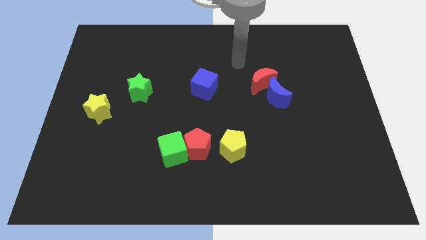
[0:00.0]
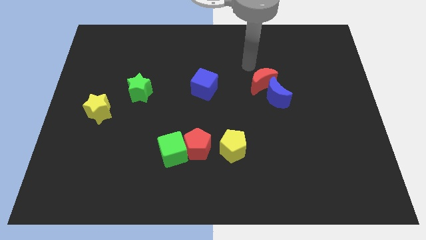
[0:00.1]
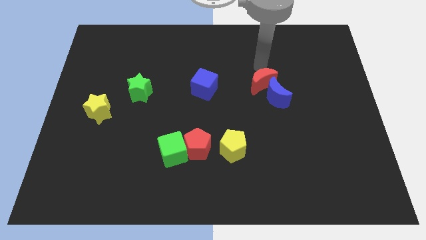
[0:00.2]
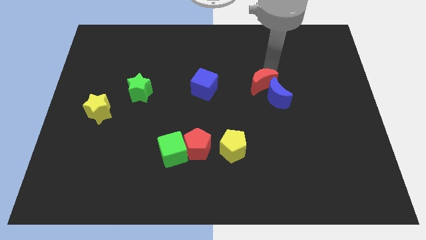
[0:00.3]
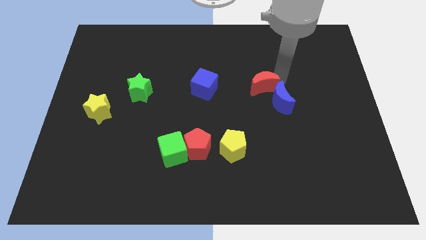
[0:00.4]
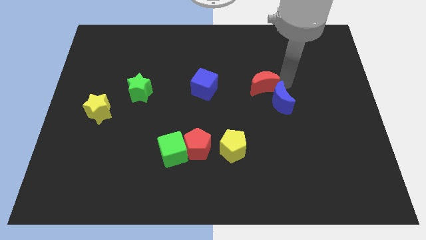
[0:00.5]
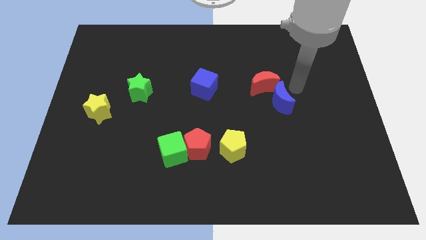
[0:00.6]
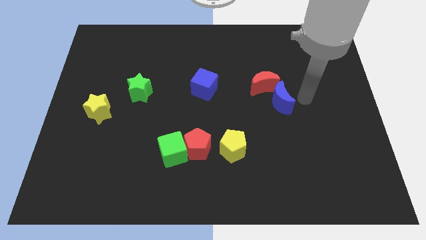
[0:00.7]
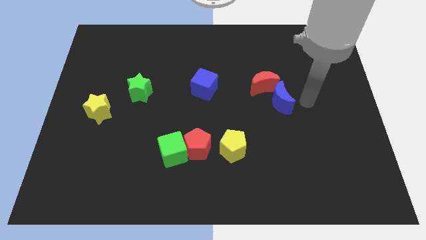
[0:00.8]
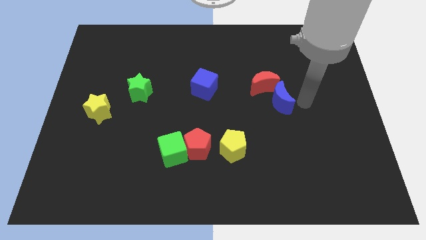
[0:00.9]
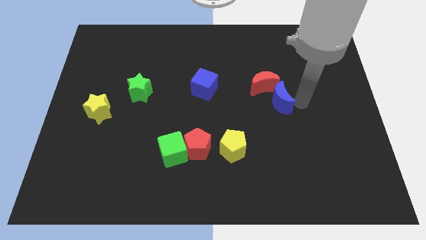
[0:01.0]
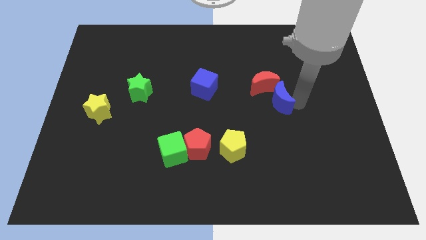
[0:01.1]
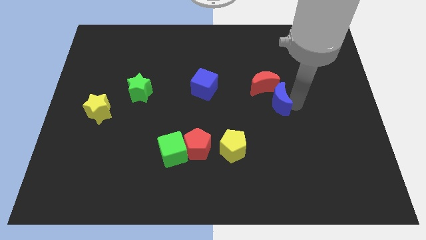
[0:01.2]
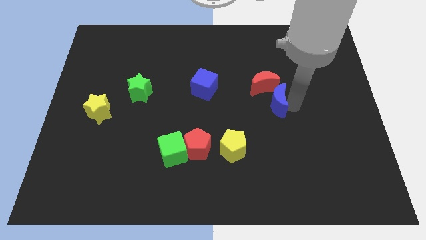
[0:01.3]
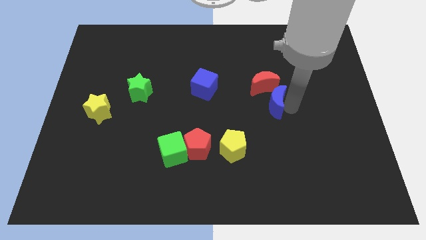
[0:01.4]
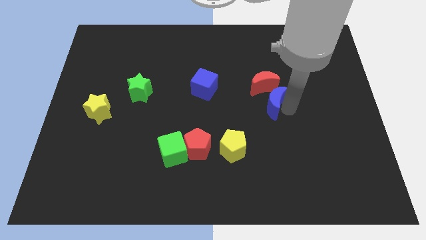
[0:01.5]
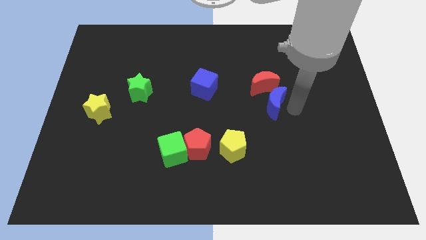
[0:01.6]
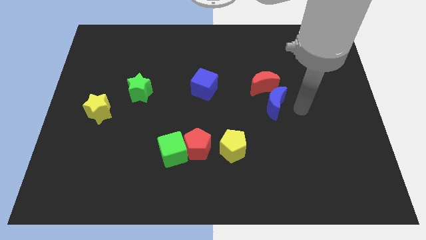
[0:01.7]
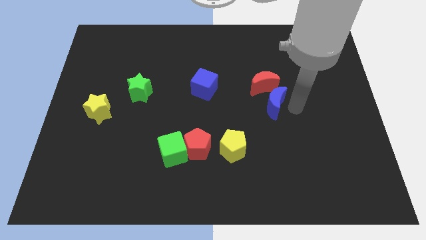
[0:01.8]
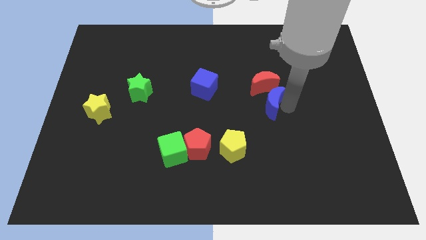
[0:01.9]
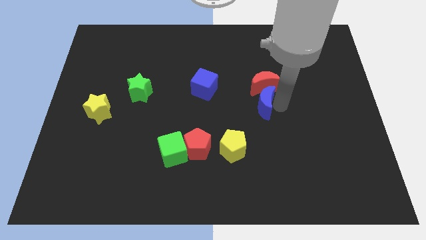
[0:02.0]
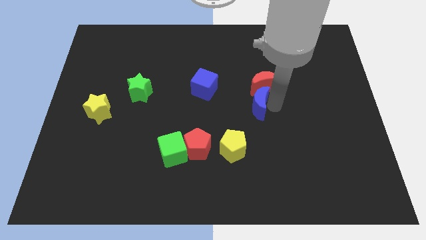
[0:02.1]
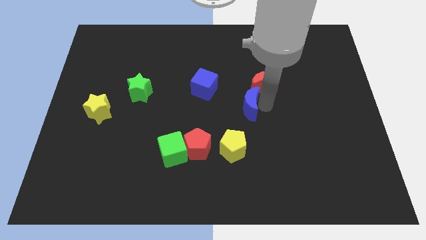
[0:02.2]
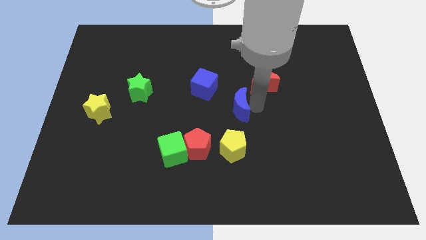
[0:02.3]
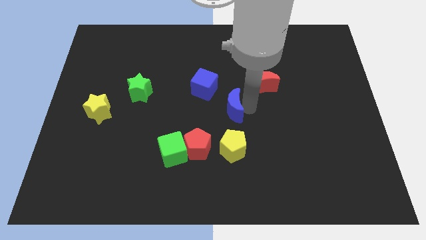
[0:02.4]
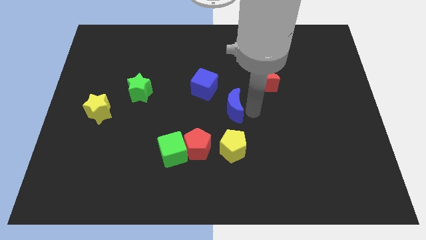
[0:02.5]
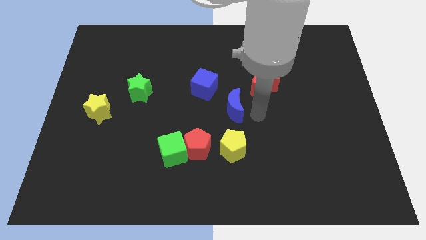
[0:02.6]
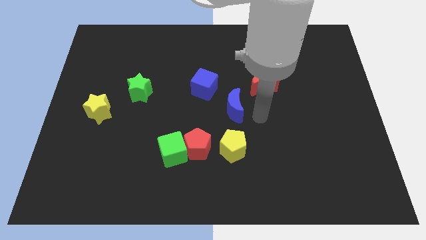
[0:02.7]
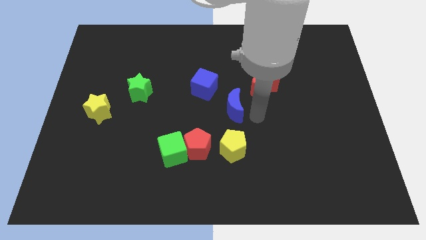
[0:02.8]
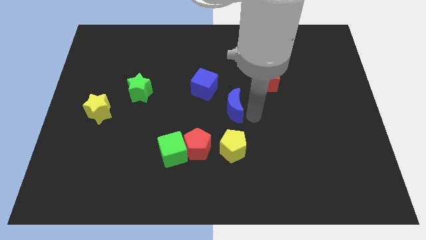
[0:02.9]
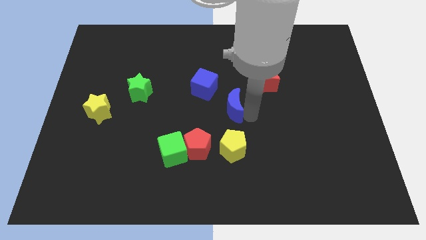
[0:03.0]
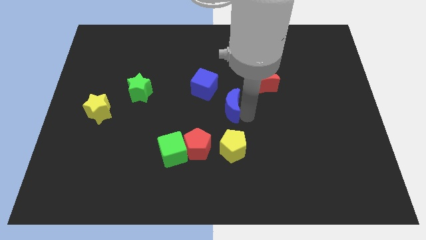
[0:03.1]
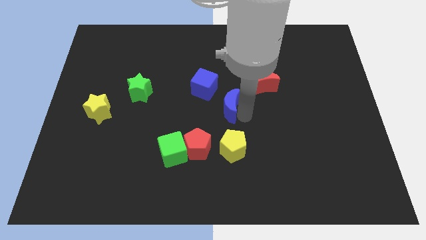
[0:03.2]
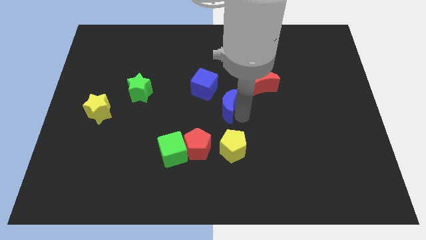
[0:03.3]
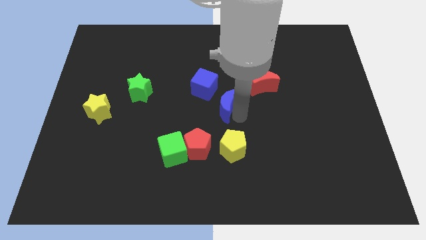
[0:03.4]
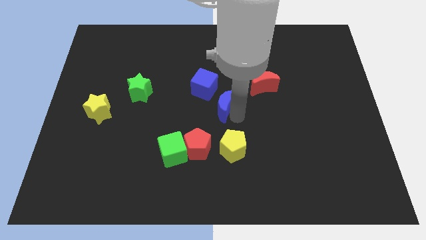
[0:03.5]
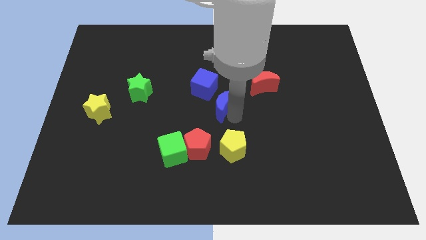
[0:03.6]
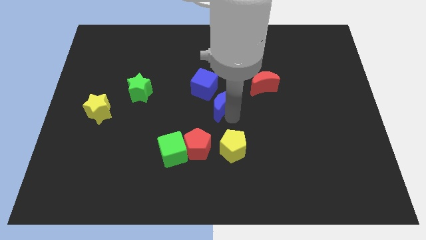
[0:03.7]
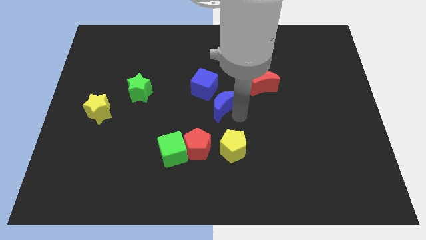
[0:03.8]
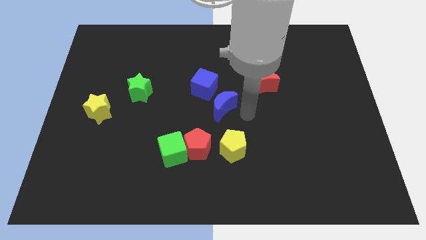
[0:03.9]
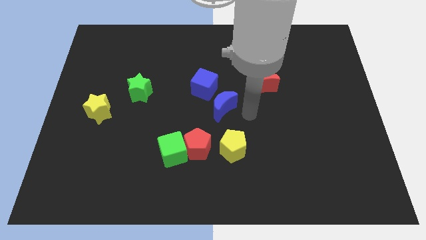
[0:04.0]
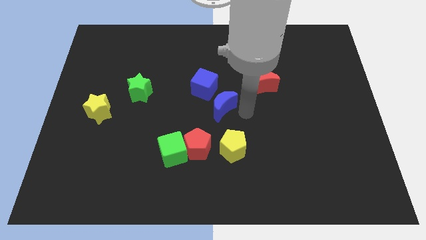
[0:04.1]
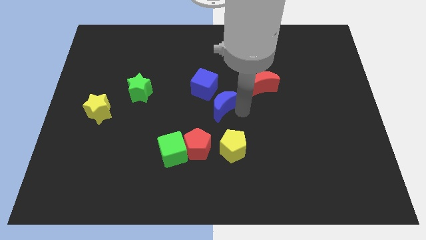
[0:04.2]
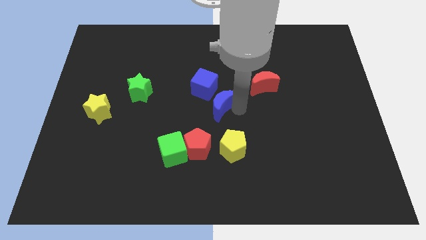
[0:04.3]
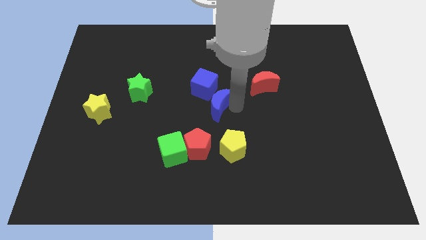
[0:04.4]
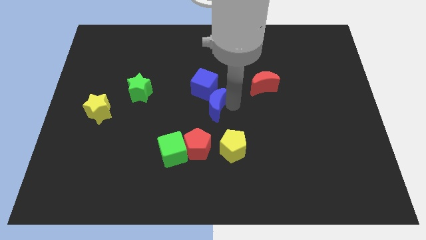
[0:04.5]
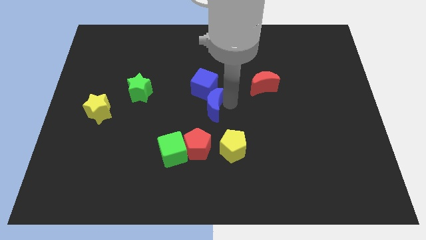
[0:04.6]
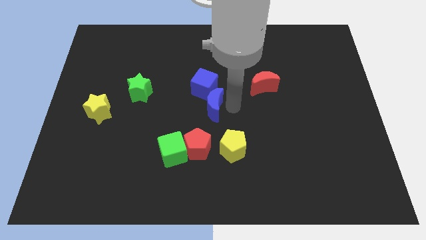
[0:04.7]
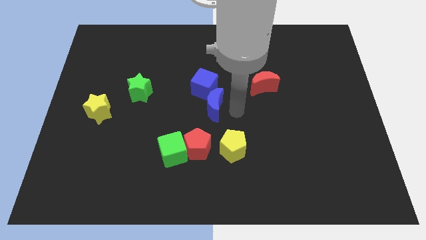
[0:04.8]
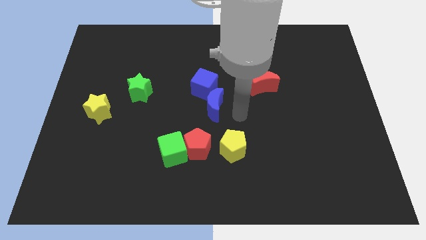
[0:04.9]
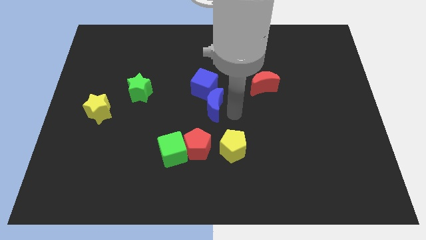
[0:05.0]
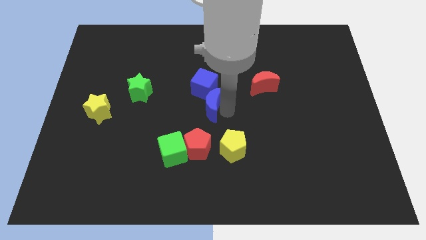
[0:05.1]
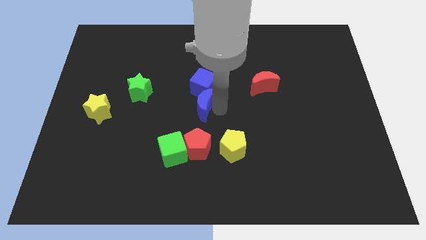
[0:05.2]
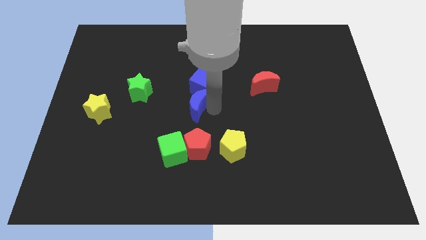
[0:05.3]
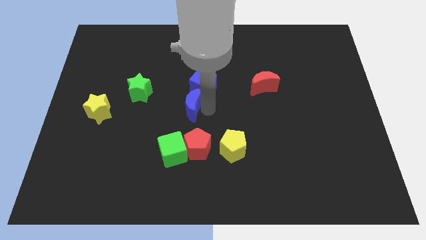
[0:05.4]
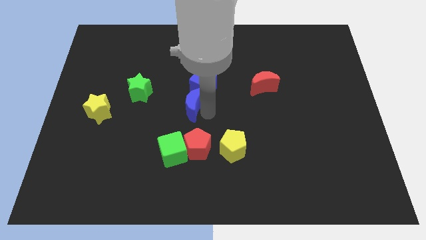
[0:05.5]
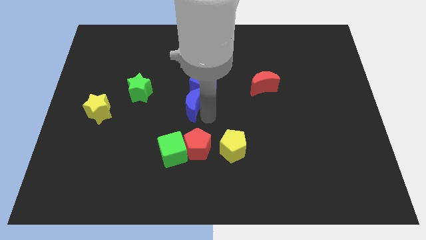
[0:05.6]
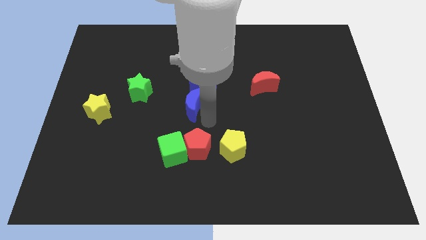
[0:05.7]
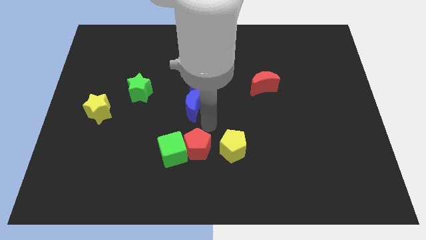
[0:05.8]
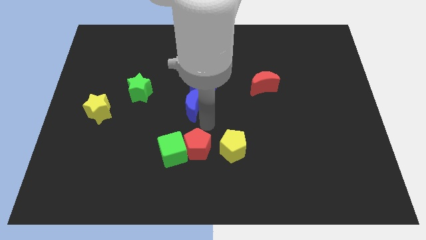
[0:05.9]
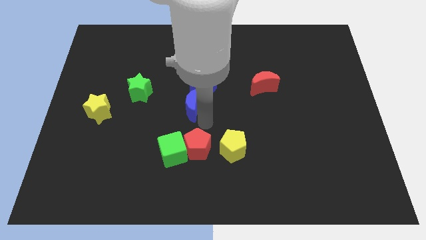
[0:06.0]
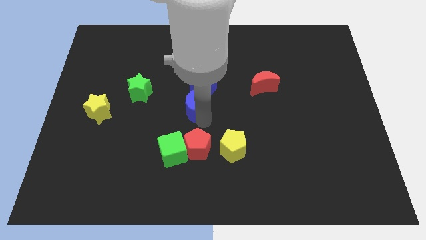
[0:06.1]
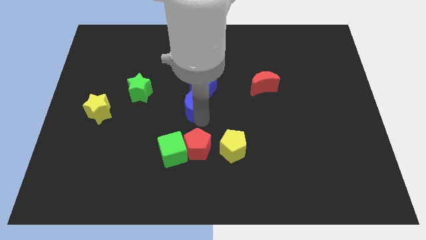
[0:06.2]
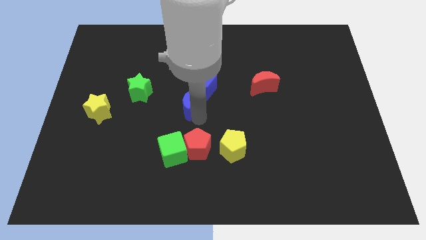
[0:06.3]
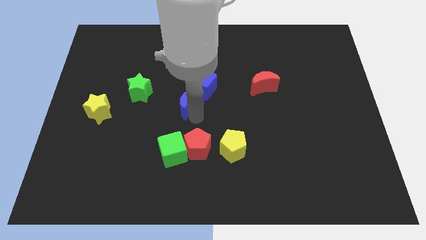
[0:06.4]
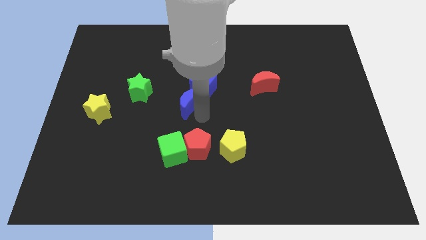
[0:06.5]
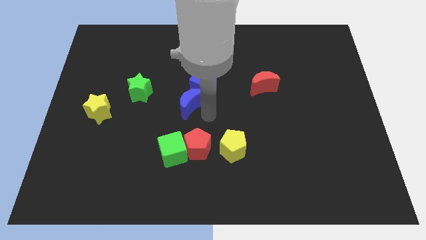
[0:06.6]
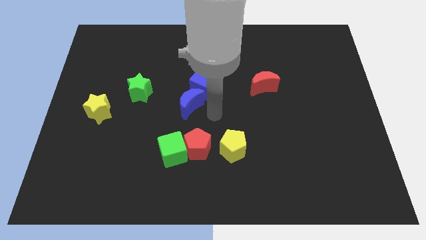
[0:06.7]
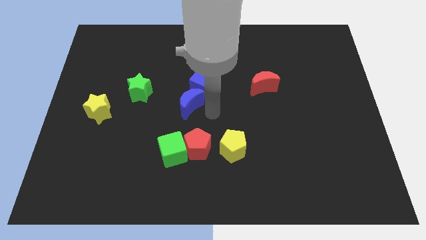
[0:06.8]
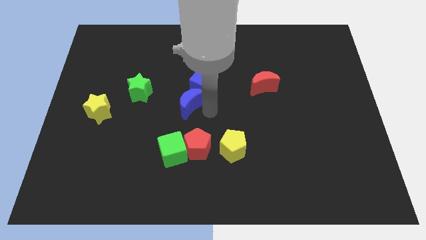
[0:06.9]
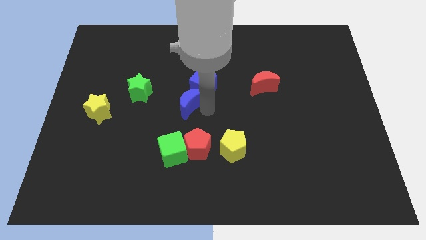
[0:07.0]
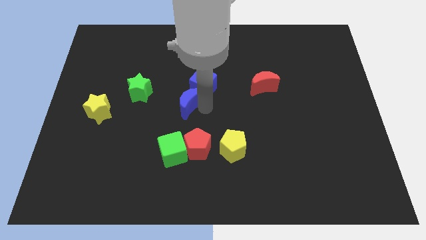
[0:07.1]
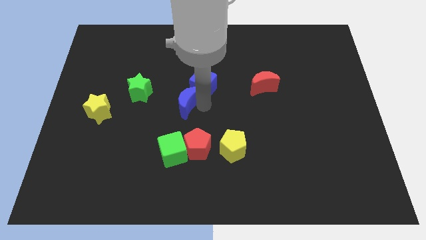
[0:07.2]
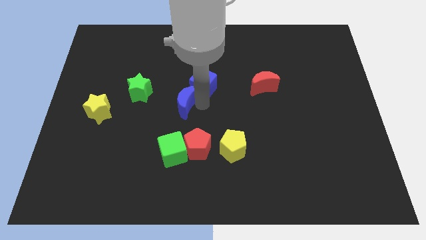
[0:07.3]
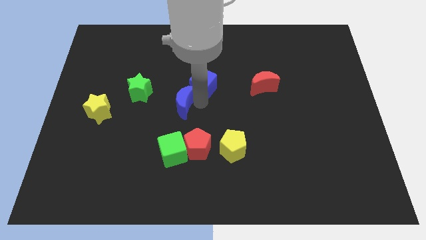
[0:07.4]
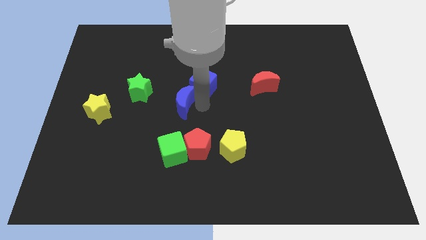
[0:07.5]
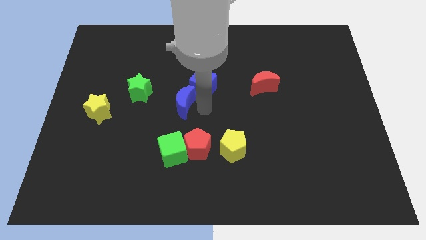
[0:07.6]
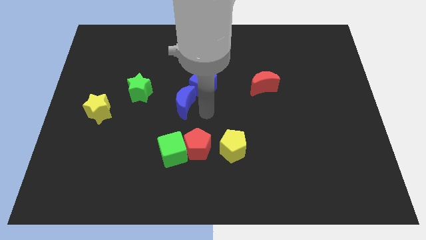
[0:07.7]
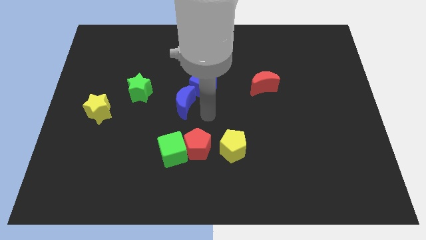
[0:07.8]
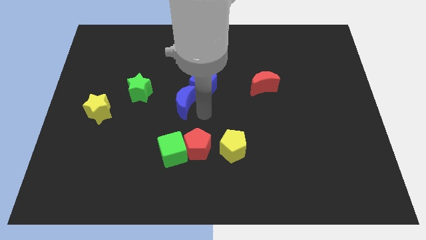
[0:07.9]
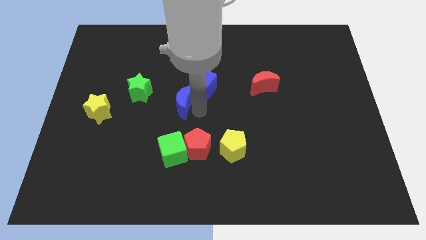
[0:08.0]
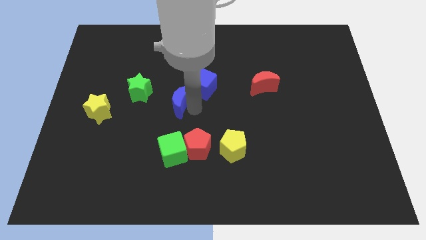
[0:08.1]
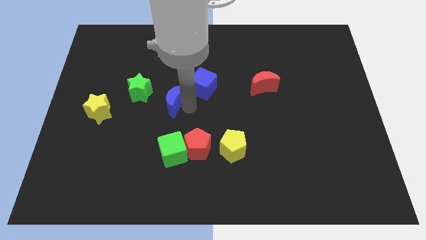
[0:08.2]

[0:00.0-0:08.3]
move the blue moon to the left side of the blue cube
